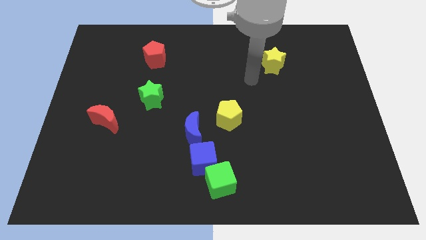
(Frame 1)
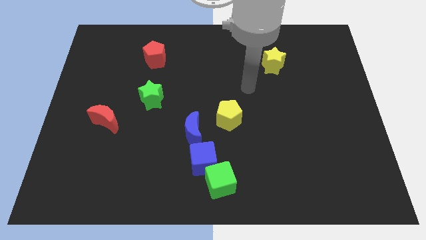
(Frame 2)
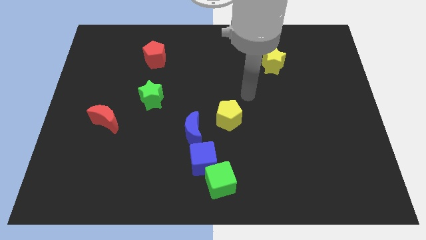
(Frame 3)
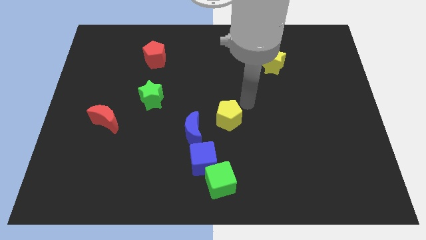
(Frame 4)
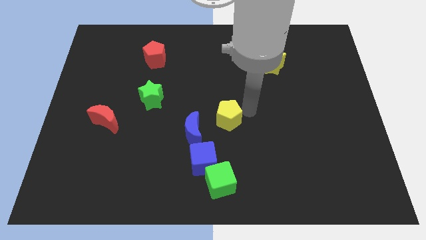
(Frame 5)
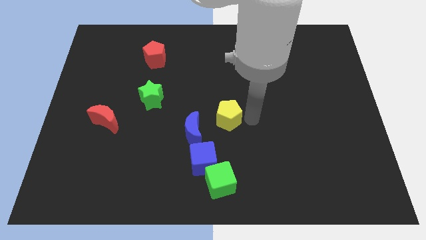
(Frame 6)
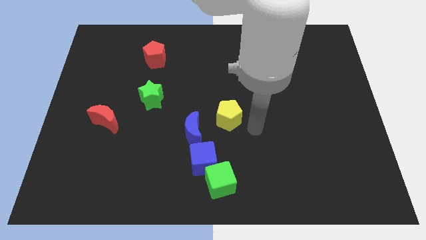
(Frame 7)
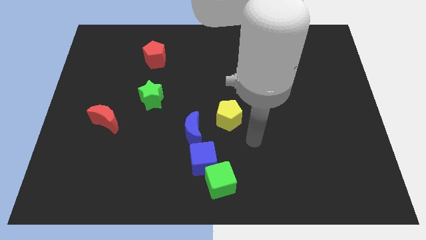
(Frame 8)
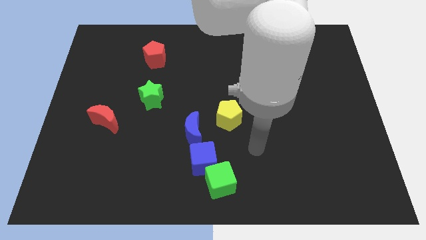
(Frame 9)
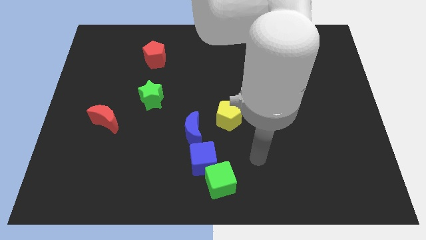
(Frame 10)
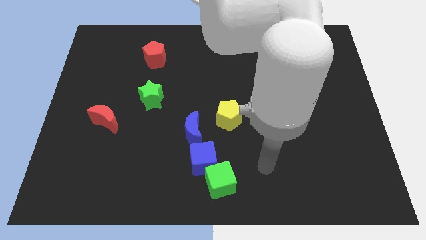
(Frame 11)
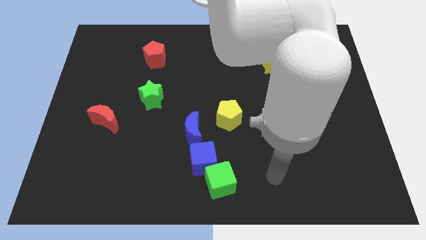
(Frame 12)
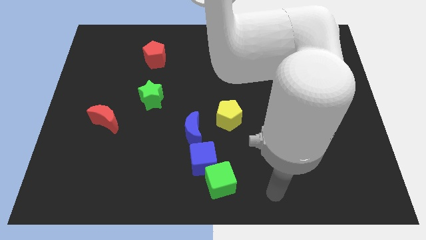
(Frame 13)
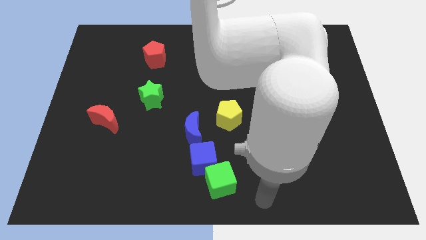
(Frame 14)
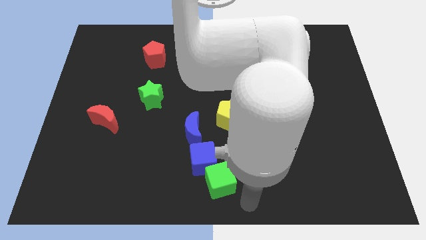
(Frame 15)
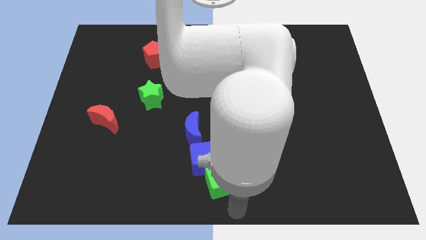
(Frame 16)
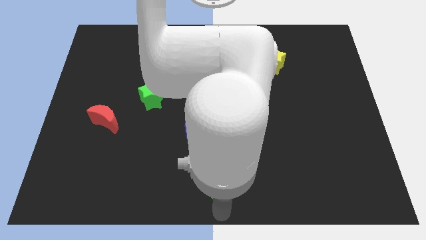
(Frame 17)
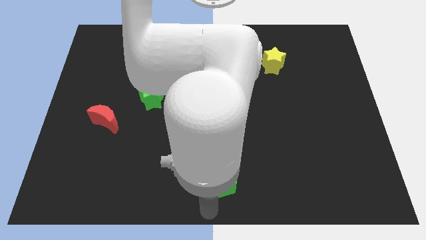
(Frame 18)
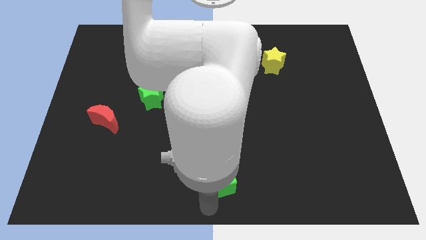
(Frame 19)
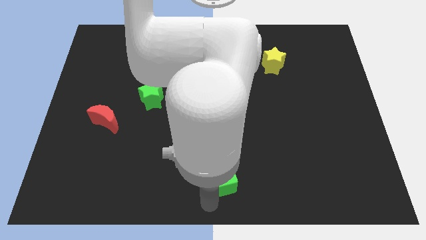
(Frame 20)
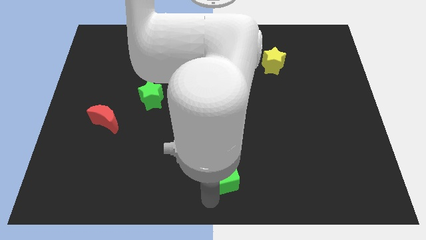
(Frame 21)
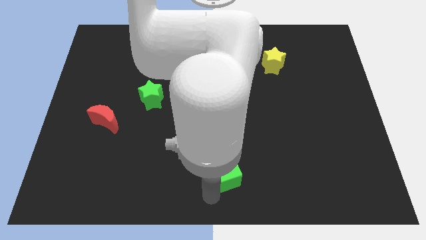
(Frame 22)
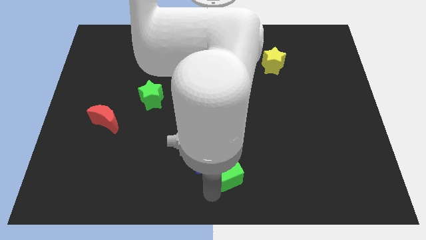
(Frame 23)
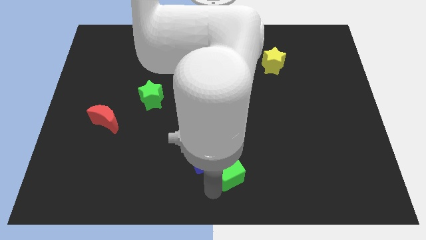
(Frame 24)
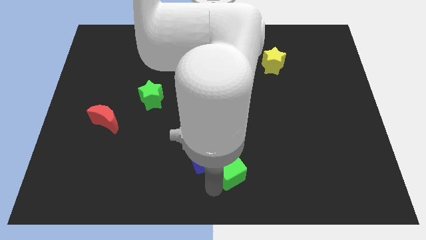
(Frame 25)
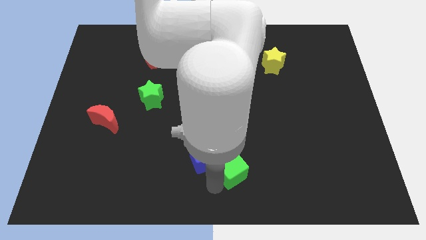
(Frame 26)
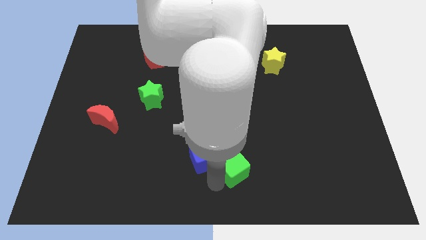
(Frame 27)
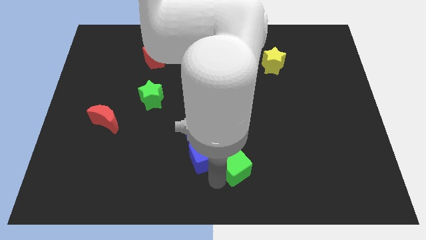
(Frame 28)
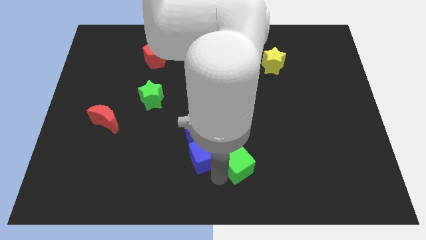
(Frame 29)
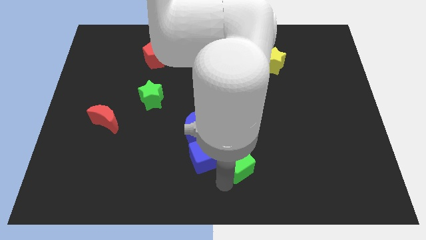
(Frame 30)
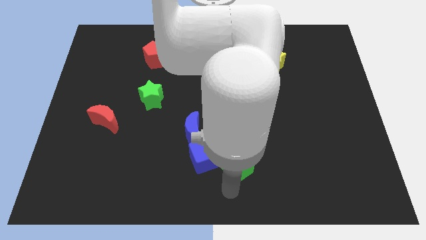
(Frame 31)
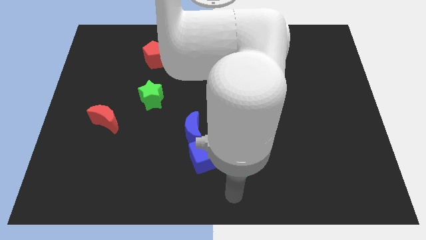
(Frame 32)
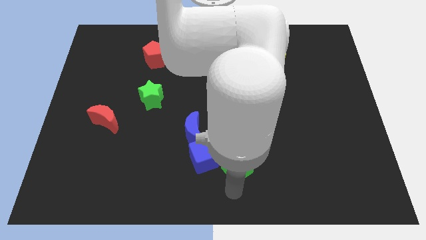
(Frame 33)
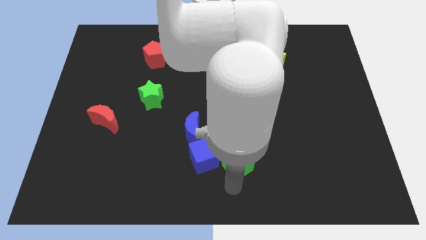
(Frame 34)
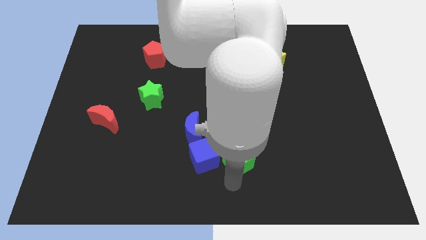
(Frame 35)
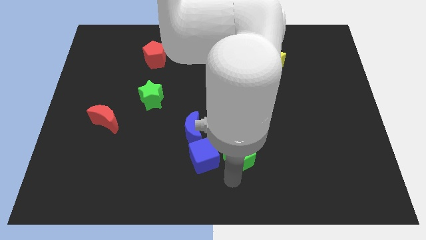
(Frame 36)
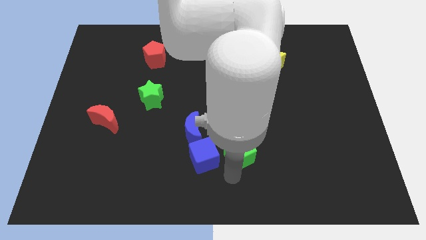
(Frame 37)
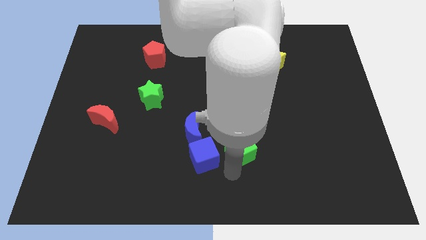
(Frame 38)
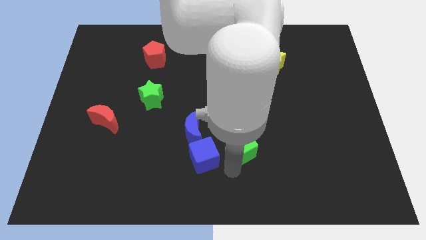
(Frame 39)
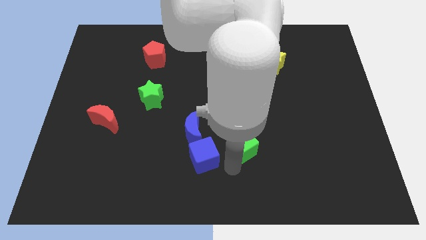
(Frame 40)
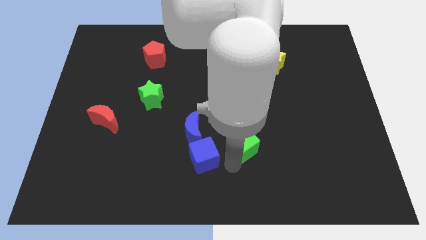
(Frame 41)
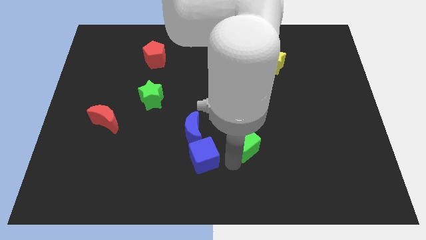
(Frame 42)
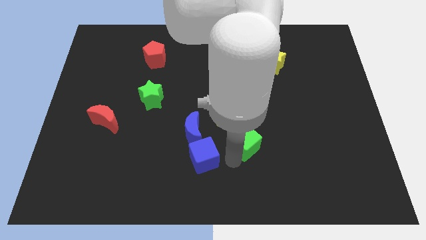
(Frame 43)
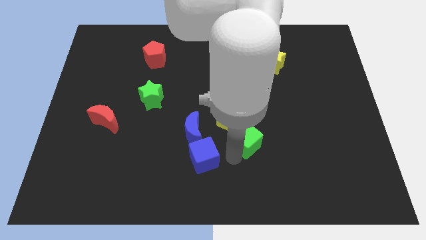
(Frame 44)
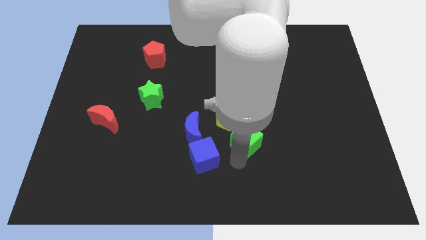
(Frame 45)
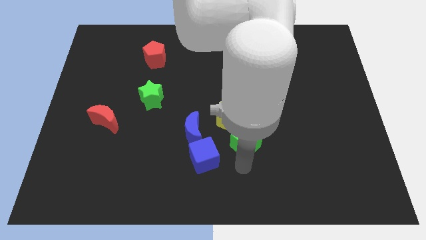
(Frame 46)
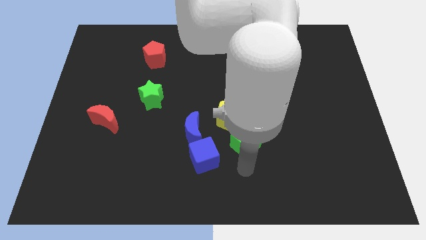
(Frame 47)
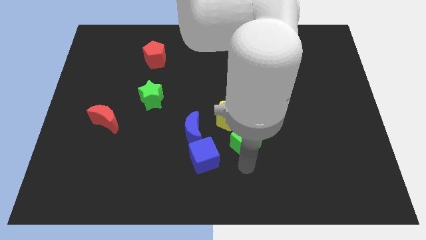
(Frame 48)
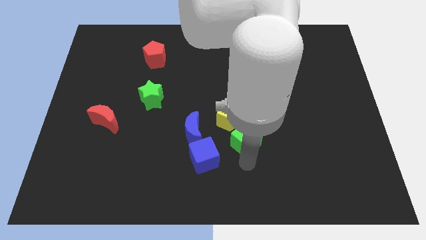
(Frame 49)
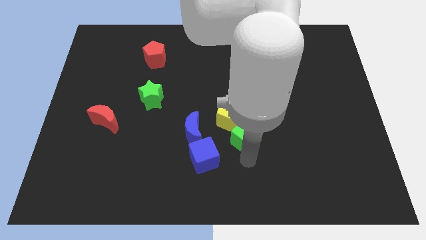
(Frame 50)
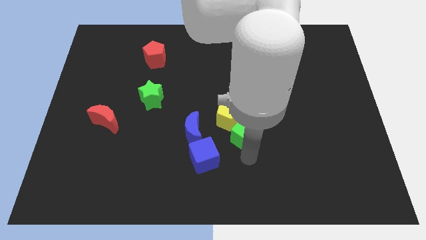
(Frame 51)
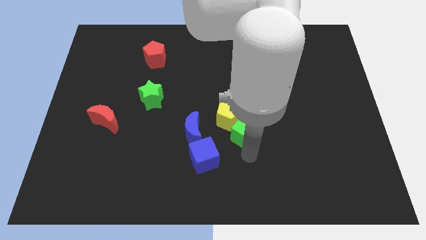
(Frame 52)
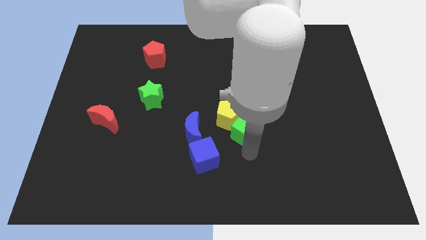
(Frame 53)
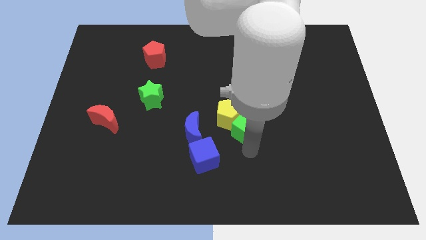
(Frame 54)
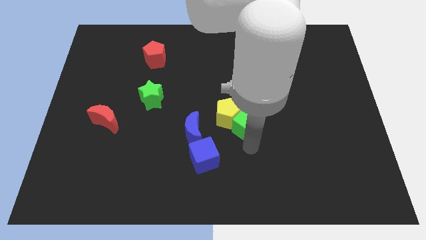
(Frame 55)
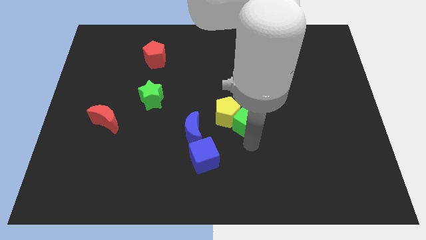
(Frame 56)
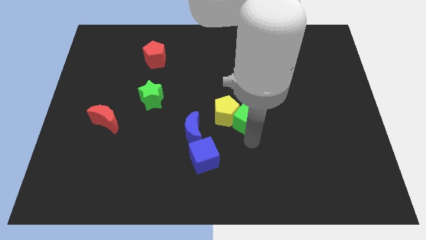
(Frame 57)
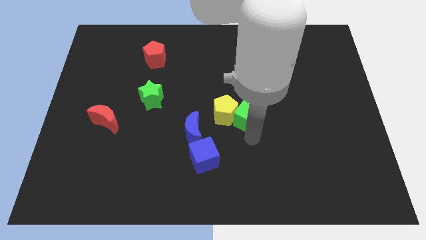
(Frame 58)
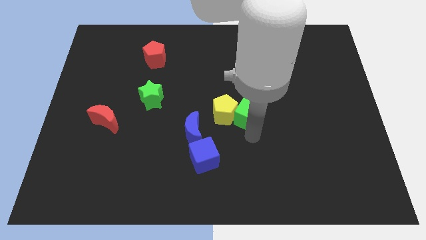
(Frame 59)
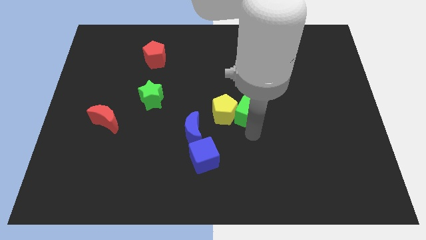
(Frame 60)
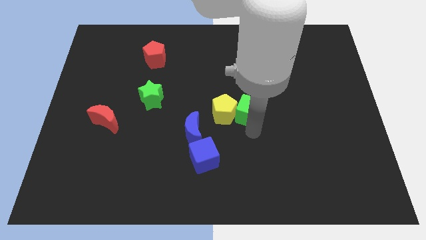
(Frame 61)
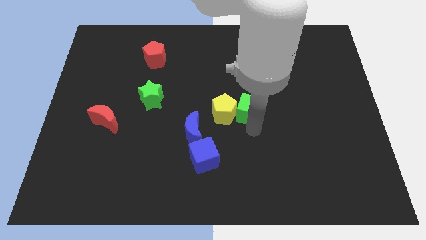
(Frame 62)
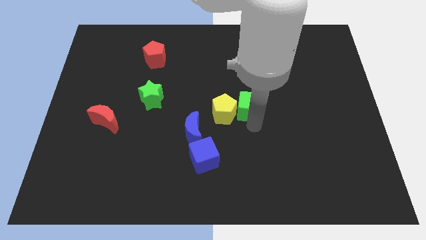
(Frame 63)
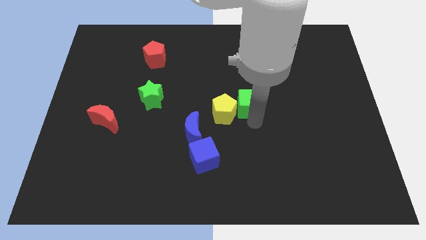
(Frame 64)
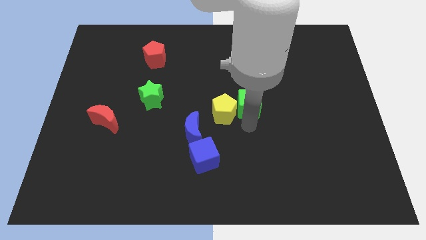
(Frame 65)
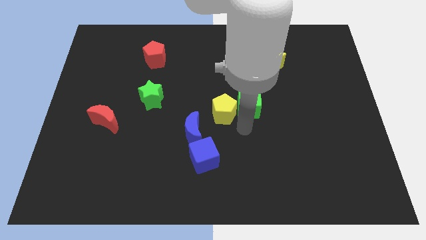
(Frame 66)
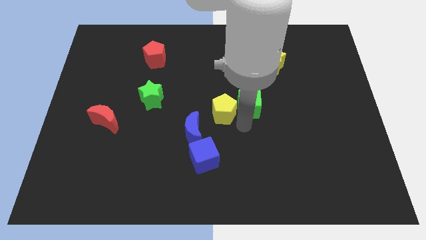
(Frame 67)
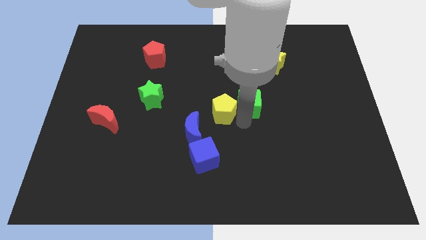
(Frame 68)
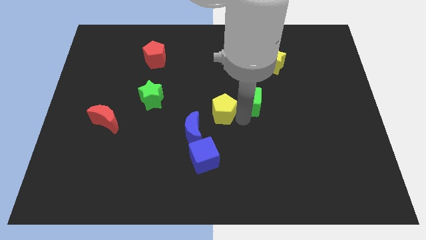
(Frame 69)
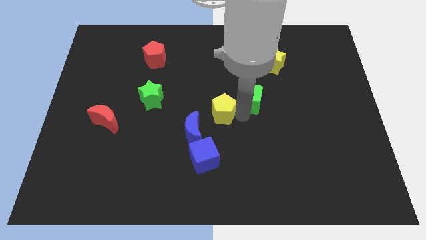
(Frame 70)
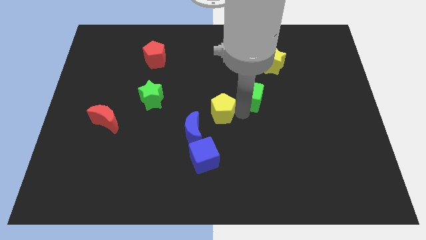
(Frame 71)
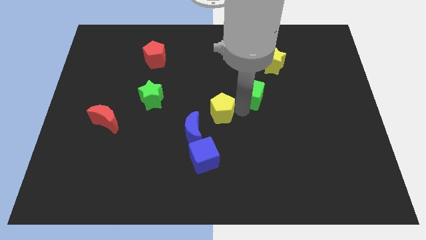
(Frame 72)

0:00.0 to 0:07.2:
put the green cube to the bottom left of the yellow star
